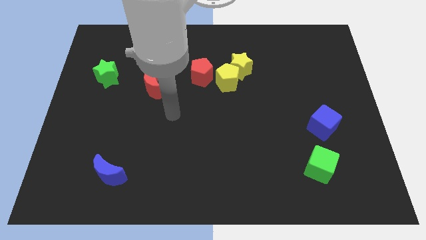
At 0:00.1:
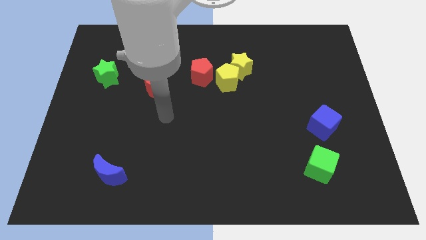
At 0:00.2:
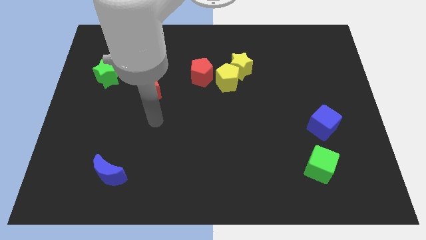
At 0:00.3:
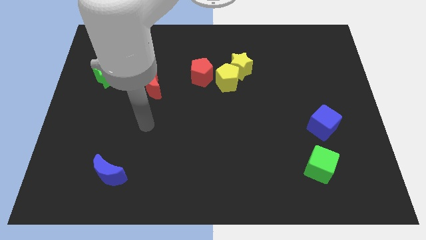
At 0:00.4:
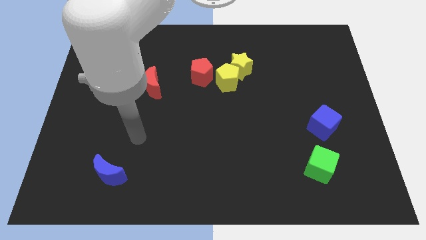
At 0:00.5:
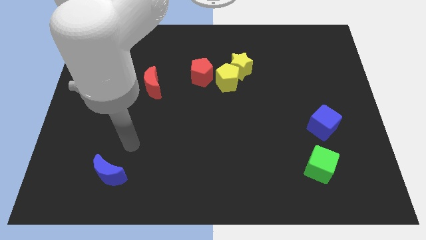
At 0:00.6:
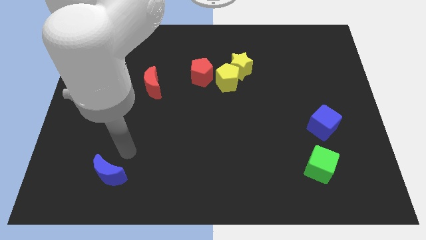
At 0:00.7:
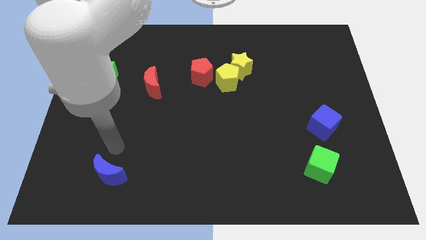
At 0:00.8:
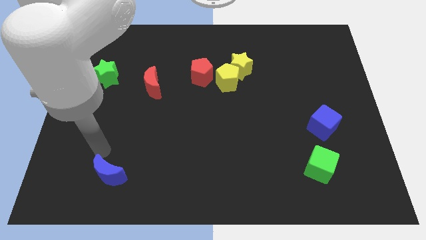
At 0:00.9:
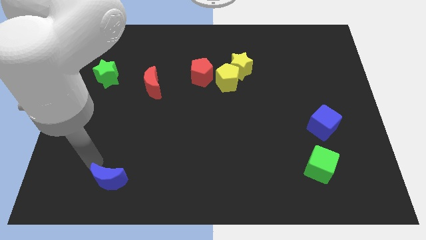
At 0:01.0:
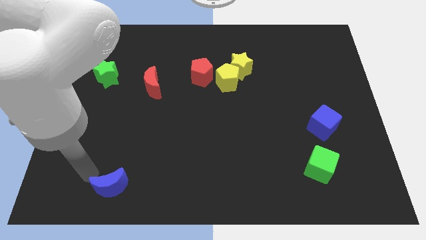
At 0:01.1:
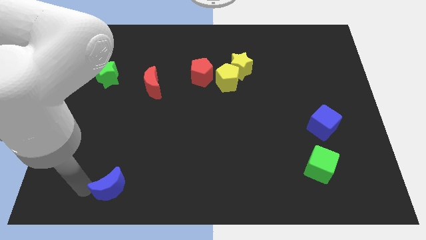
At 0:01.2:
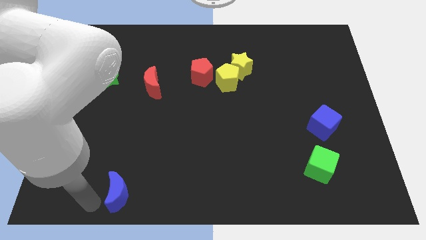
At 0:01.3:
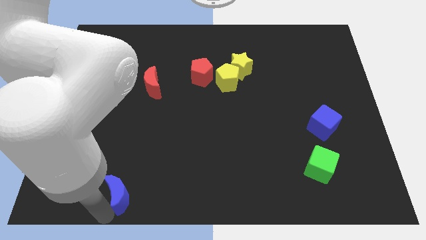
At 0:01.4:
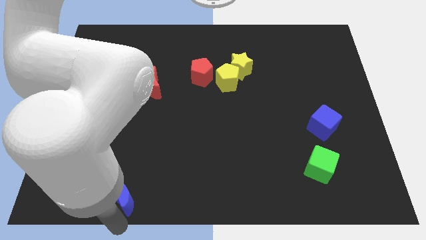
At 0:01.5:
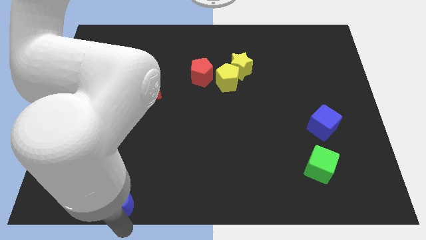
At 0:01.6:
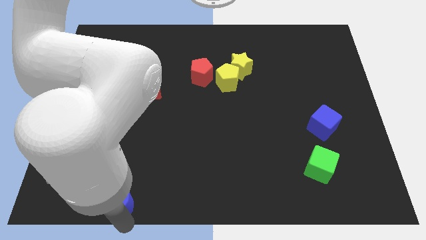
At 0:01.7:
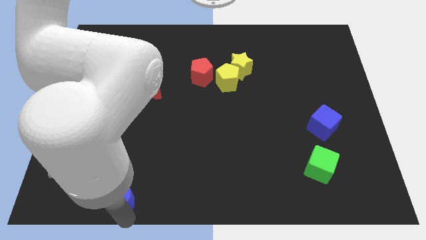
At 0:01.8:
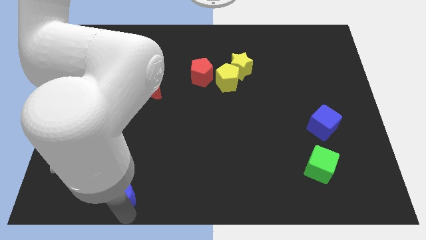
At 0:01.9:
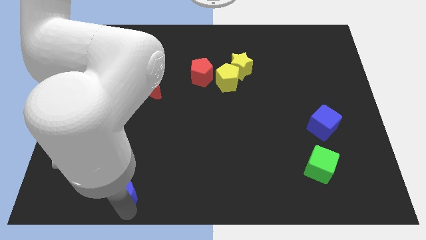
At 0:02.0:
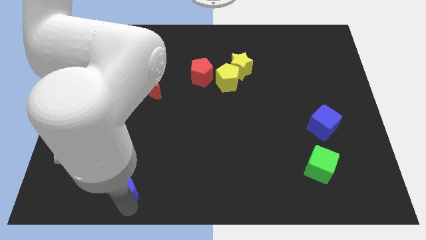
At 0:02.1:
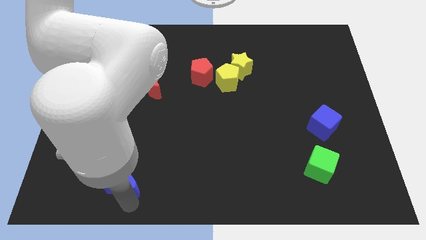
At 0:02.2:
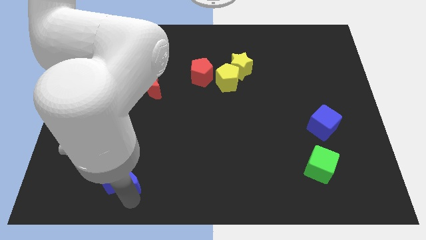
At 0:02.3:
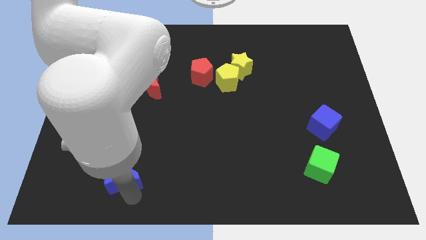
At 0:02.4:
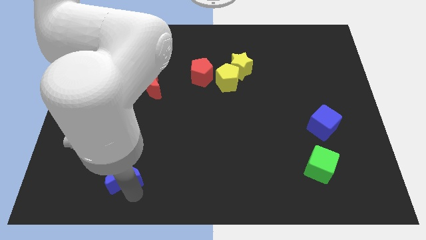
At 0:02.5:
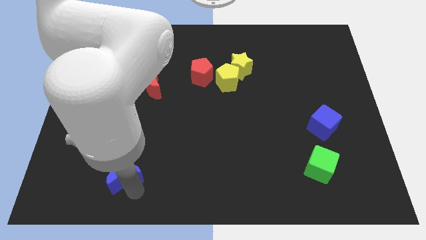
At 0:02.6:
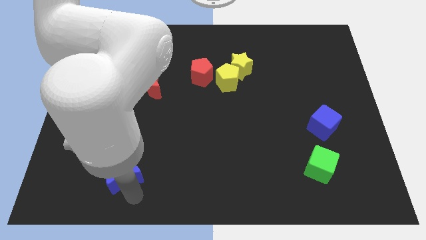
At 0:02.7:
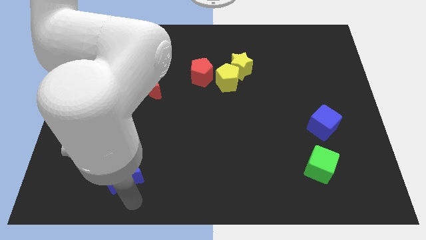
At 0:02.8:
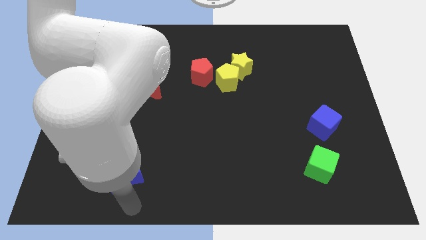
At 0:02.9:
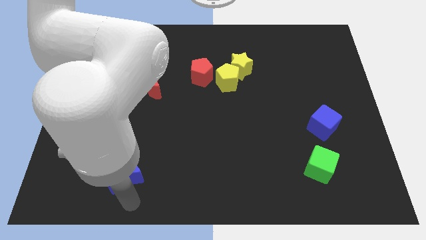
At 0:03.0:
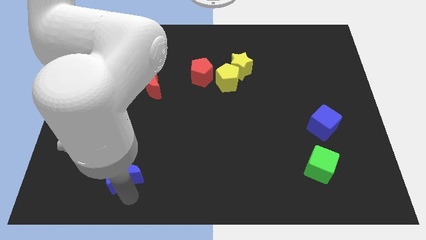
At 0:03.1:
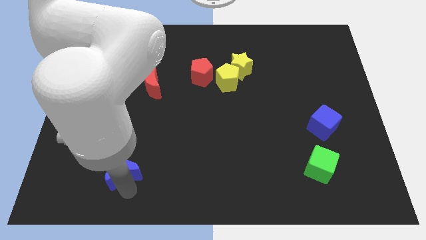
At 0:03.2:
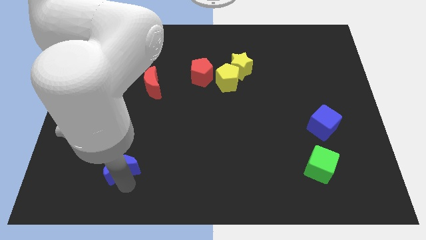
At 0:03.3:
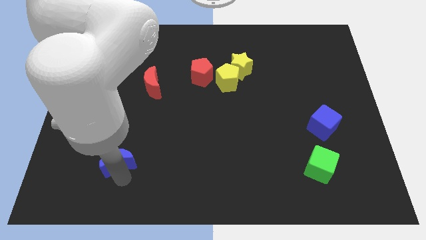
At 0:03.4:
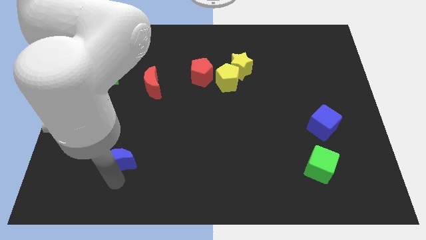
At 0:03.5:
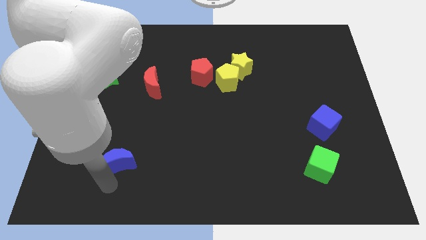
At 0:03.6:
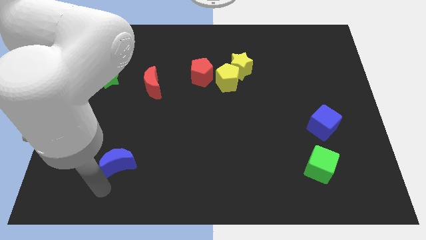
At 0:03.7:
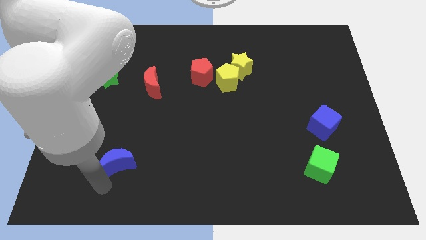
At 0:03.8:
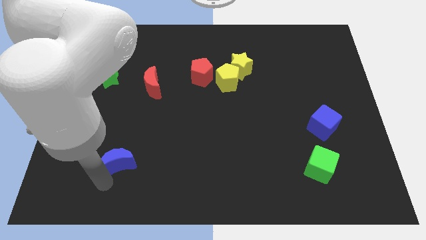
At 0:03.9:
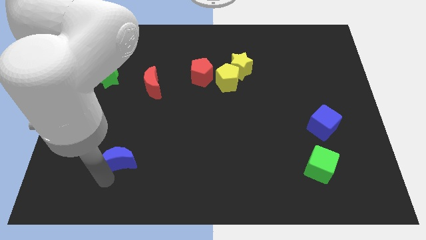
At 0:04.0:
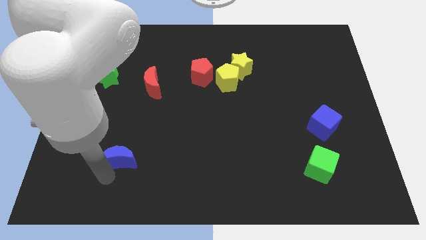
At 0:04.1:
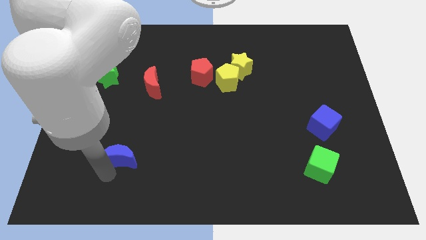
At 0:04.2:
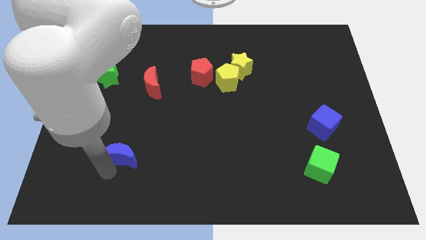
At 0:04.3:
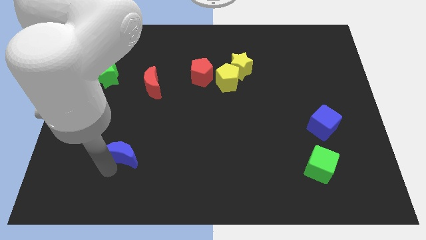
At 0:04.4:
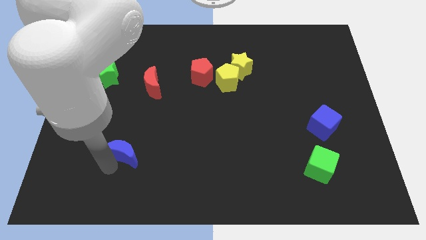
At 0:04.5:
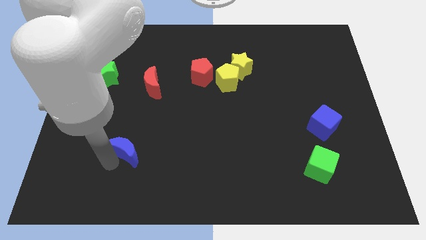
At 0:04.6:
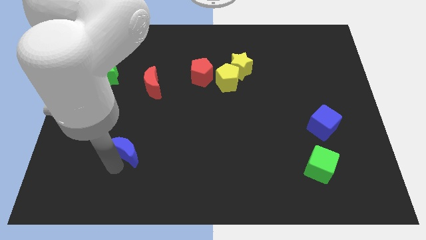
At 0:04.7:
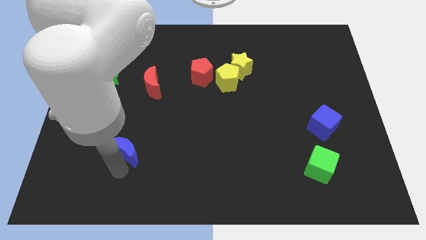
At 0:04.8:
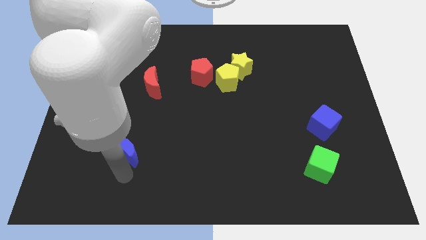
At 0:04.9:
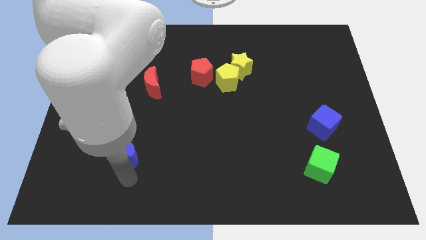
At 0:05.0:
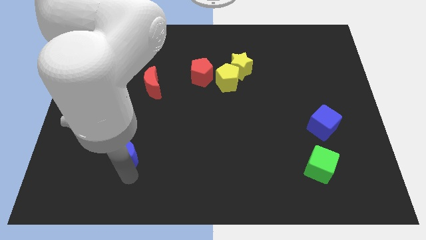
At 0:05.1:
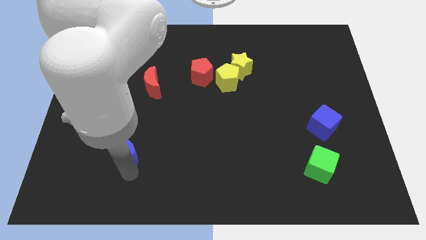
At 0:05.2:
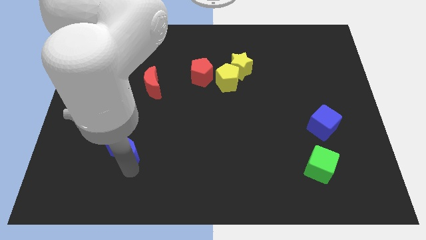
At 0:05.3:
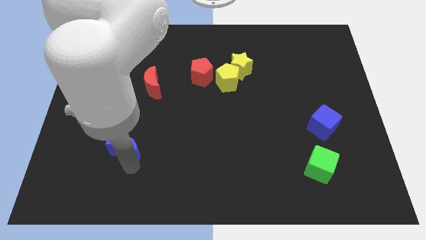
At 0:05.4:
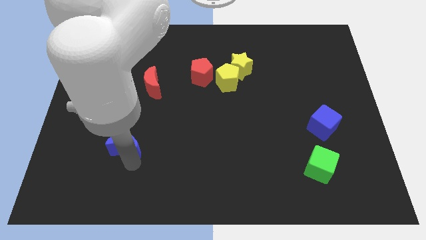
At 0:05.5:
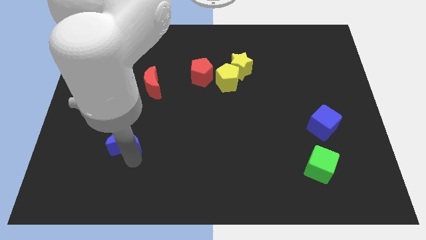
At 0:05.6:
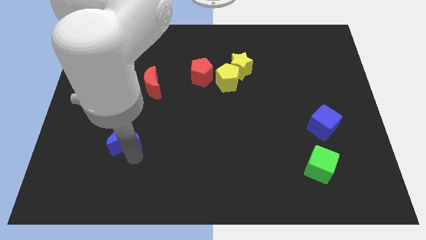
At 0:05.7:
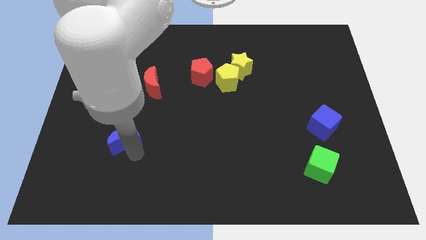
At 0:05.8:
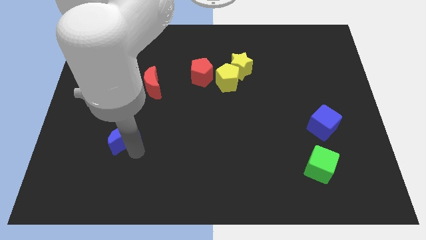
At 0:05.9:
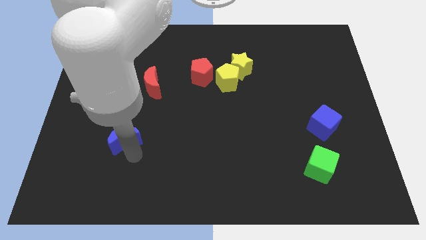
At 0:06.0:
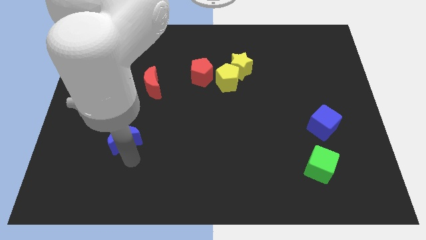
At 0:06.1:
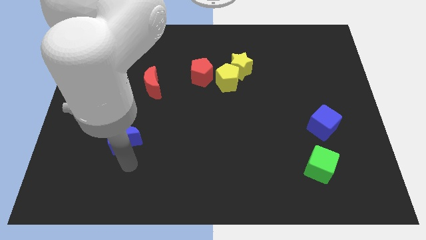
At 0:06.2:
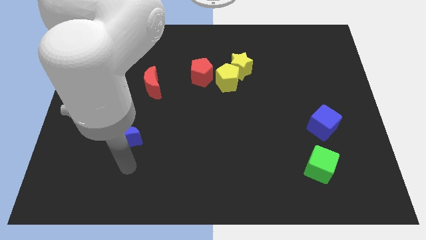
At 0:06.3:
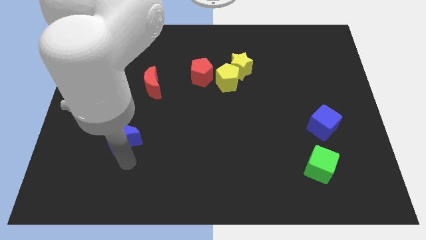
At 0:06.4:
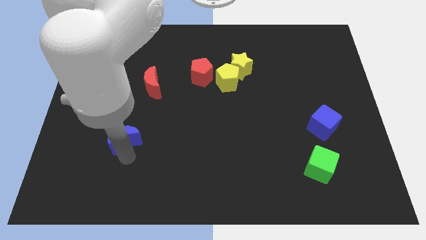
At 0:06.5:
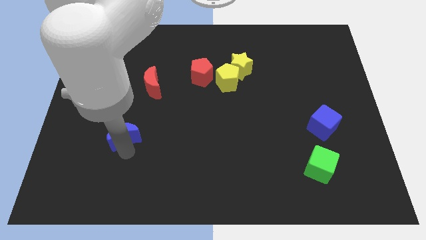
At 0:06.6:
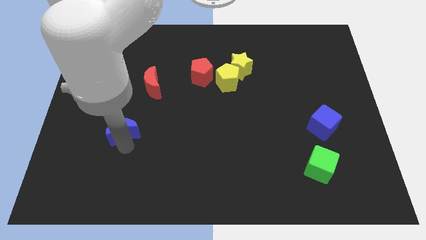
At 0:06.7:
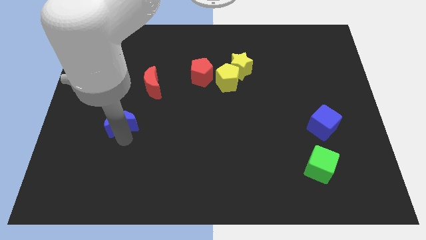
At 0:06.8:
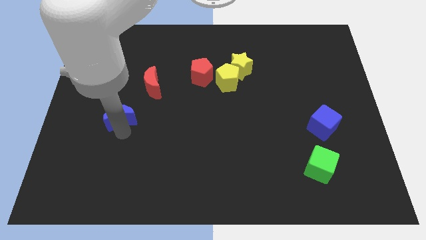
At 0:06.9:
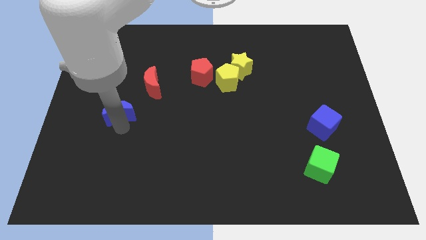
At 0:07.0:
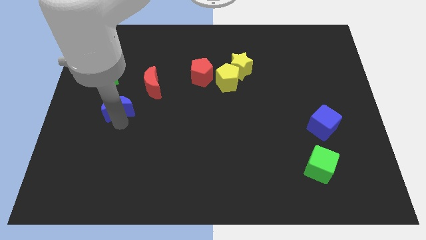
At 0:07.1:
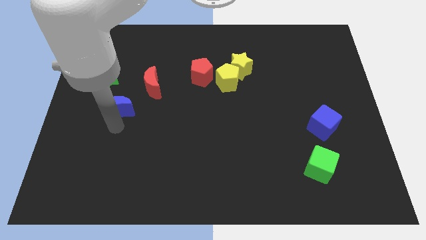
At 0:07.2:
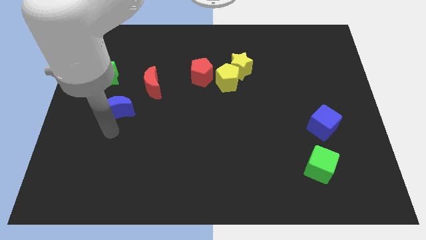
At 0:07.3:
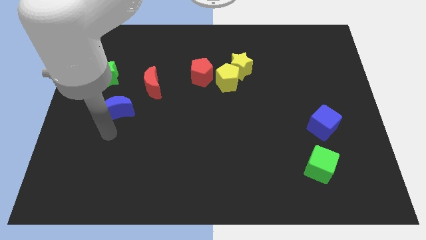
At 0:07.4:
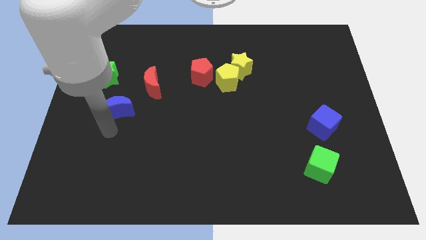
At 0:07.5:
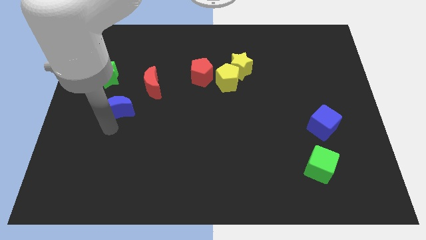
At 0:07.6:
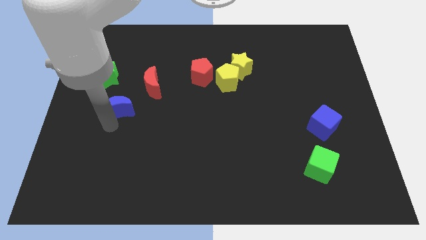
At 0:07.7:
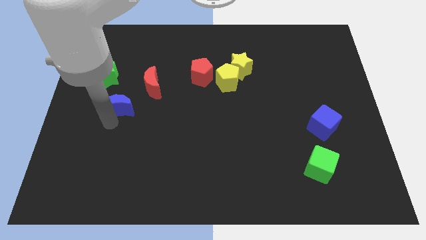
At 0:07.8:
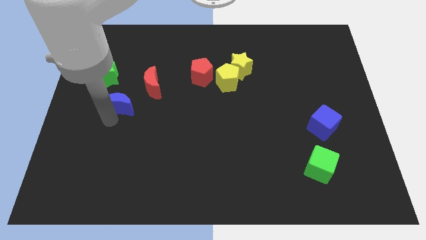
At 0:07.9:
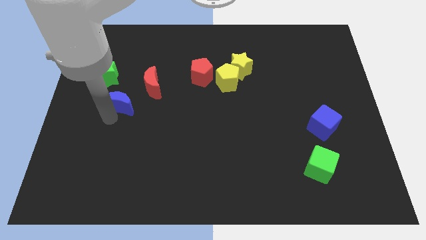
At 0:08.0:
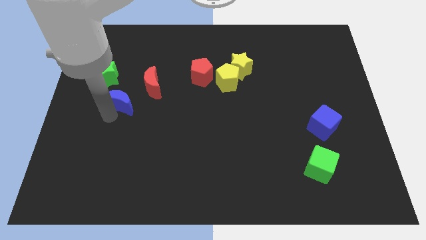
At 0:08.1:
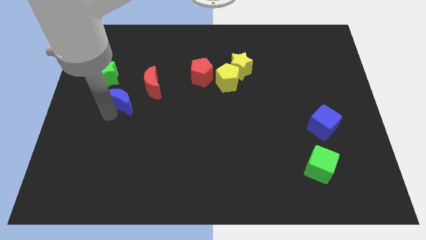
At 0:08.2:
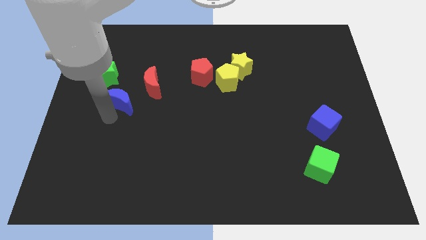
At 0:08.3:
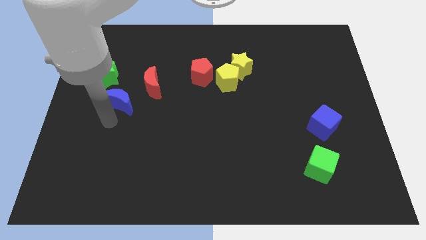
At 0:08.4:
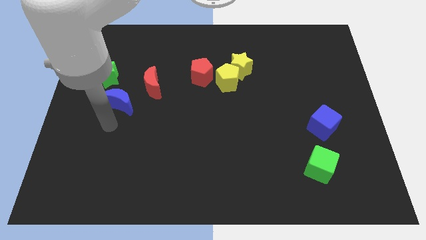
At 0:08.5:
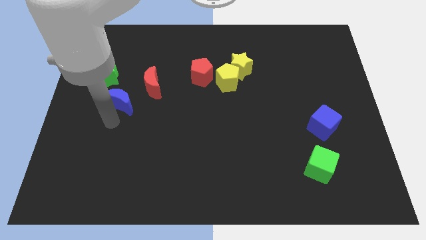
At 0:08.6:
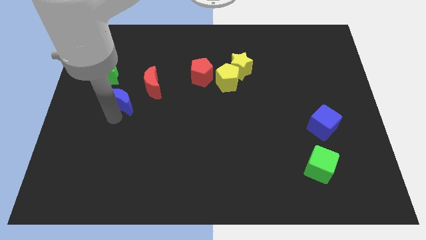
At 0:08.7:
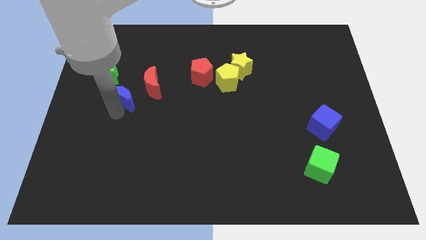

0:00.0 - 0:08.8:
slide the blue moon upwards
